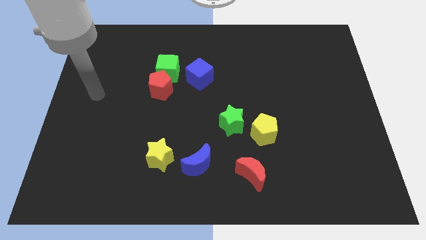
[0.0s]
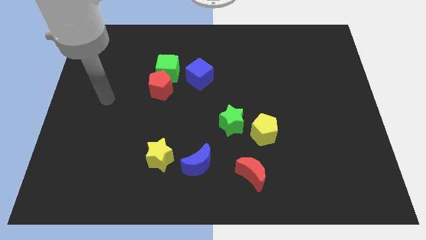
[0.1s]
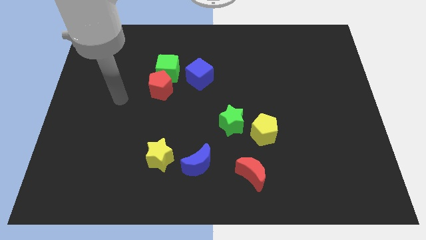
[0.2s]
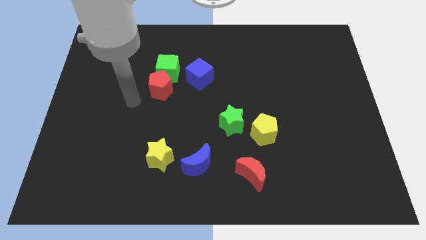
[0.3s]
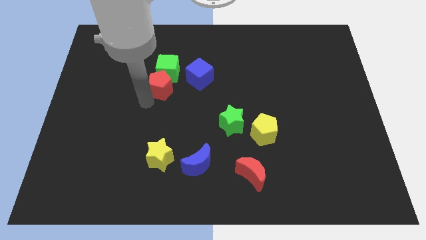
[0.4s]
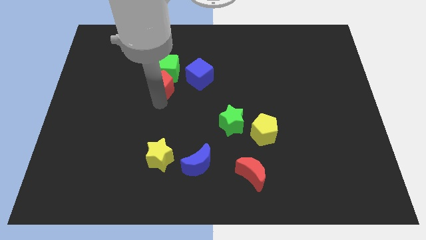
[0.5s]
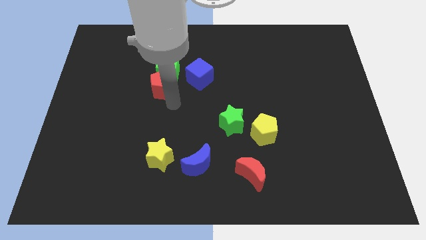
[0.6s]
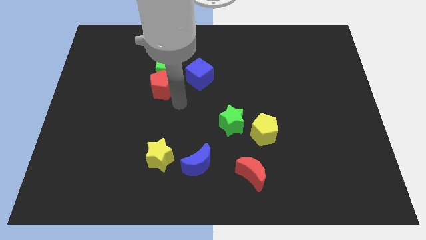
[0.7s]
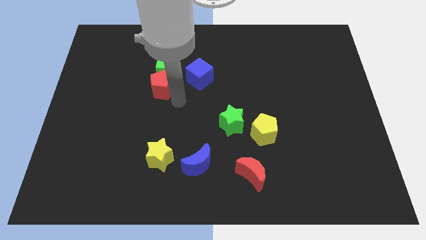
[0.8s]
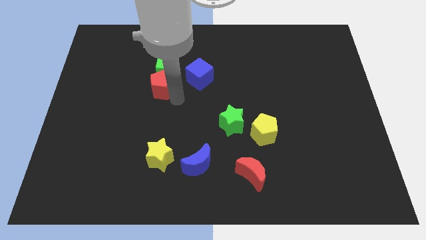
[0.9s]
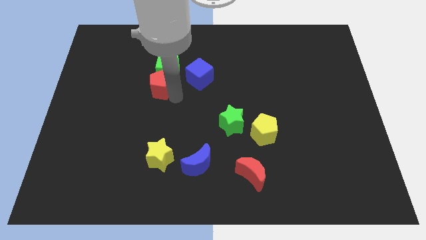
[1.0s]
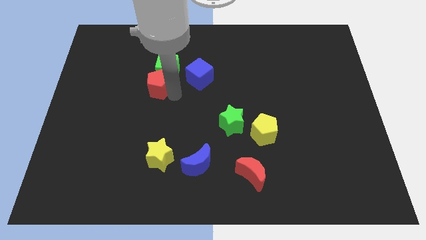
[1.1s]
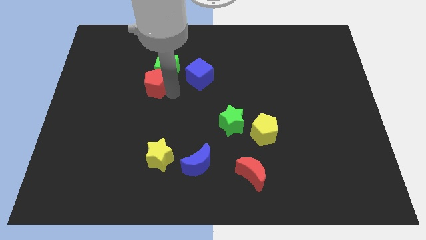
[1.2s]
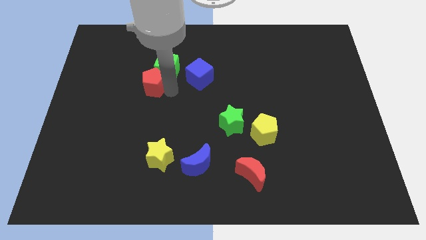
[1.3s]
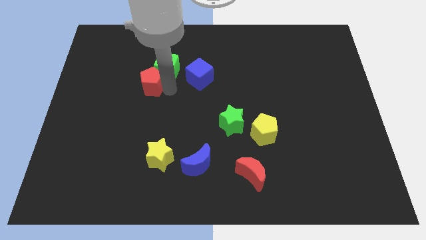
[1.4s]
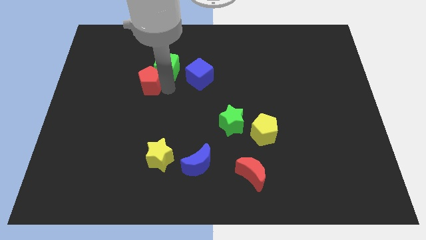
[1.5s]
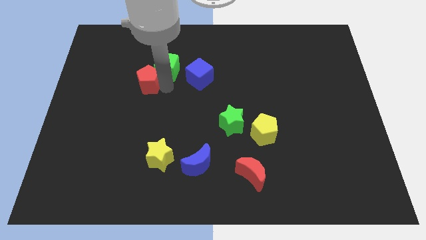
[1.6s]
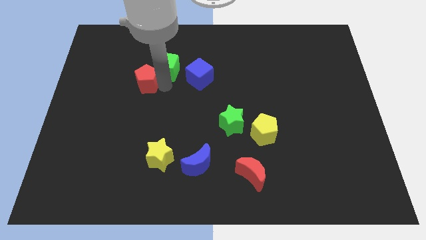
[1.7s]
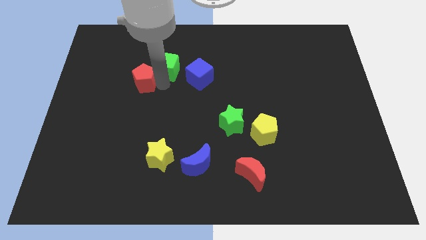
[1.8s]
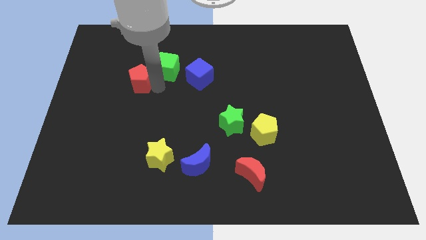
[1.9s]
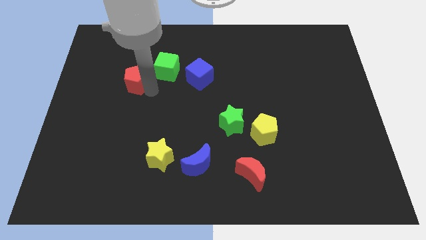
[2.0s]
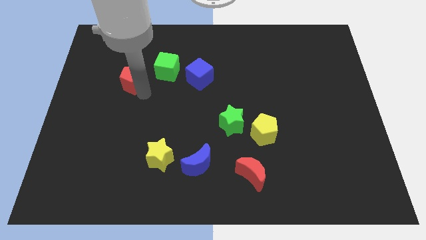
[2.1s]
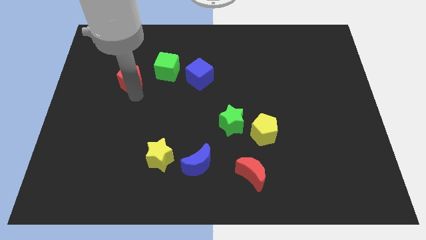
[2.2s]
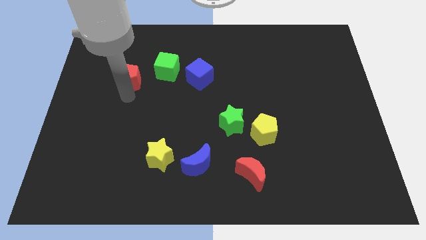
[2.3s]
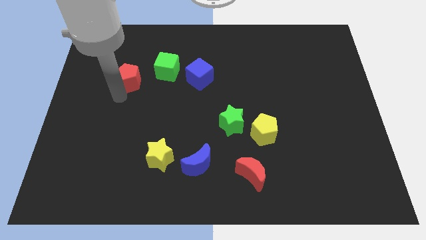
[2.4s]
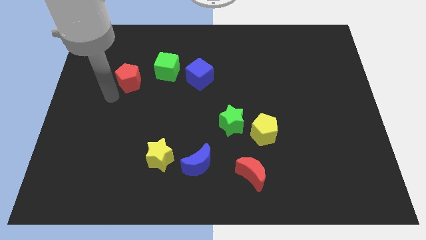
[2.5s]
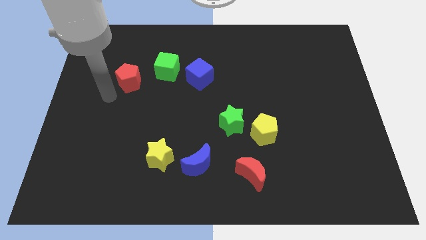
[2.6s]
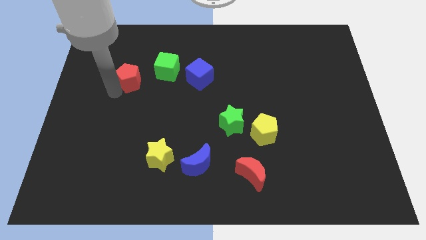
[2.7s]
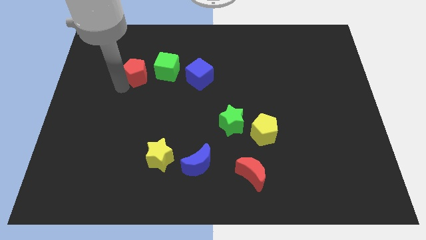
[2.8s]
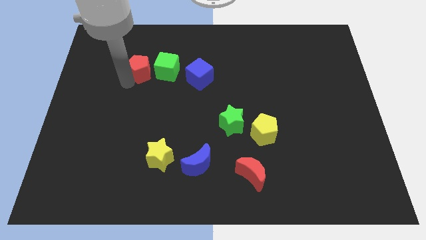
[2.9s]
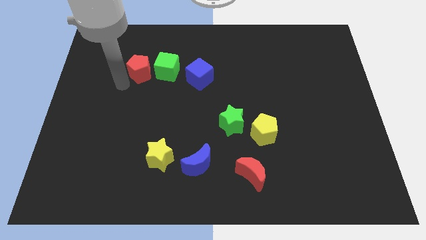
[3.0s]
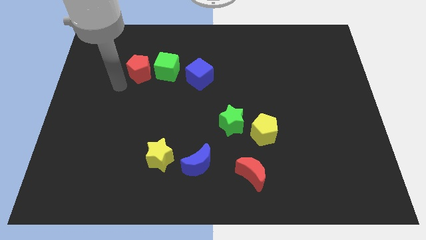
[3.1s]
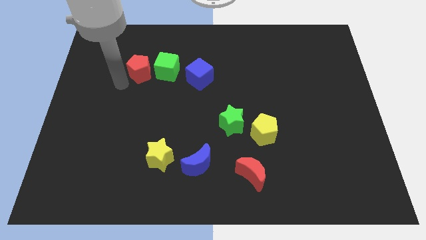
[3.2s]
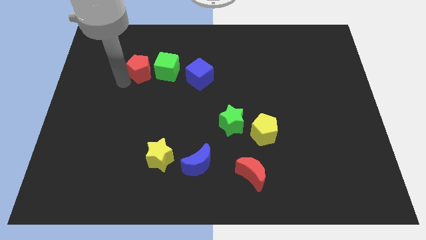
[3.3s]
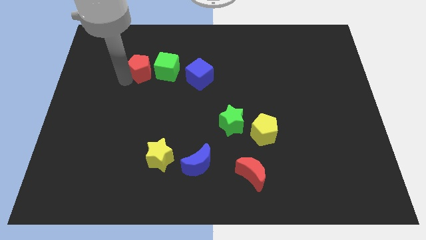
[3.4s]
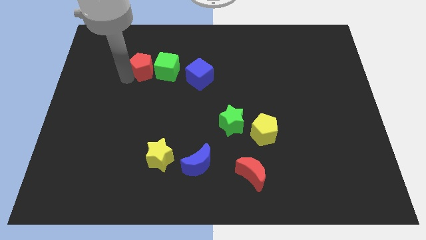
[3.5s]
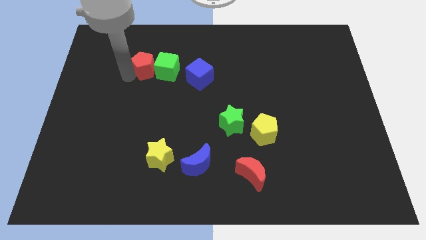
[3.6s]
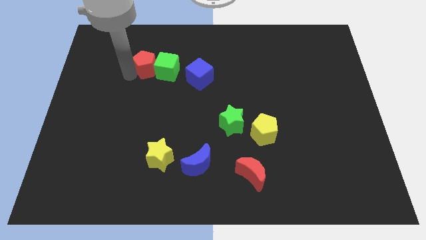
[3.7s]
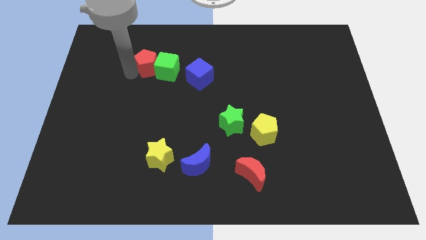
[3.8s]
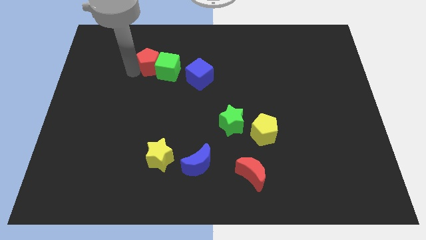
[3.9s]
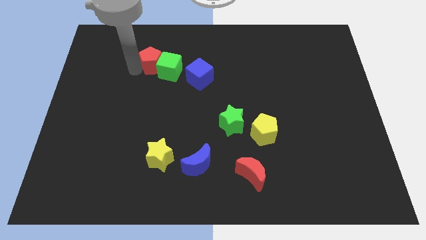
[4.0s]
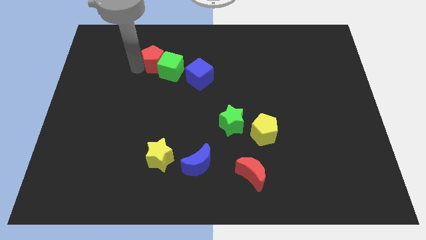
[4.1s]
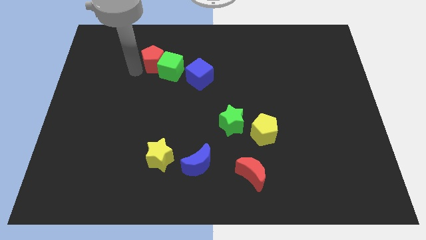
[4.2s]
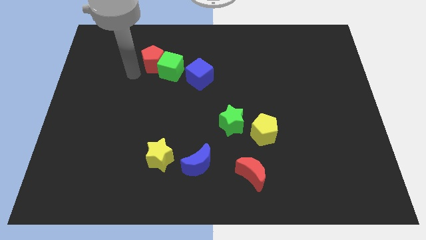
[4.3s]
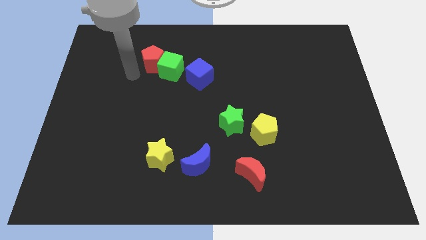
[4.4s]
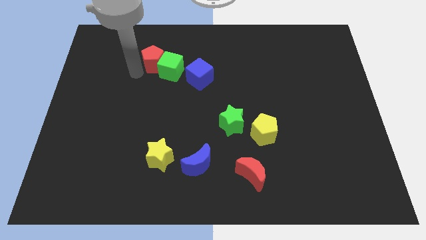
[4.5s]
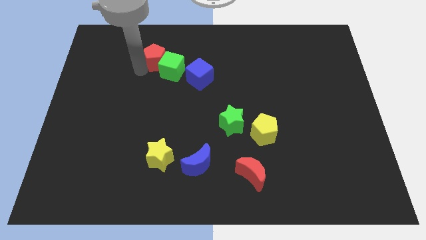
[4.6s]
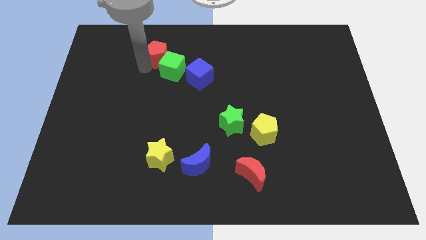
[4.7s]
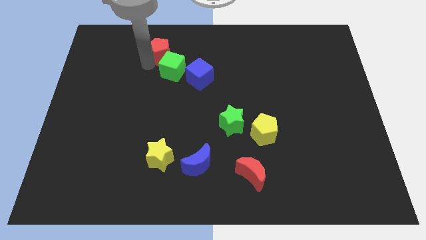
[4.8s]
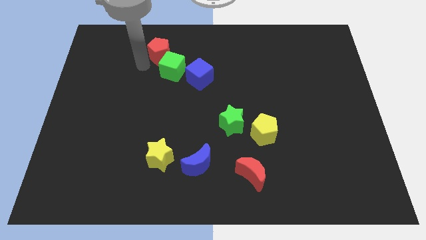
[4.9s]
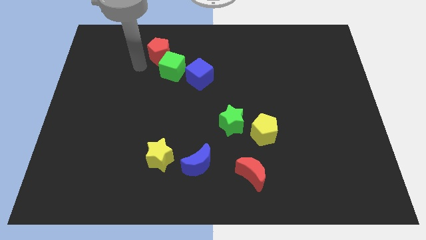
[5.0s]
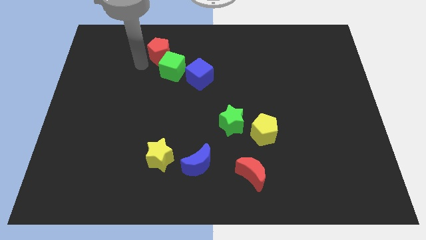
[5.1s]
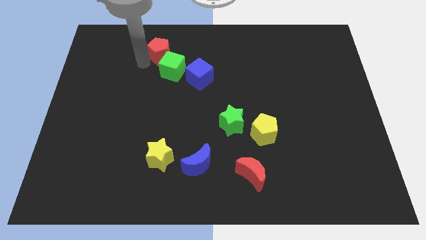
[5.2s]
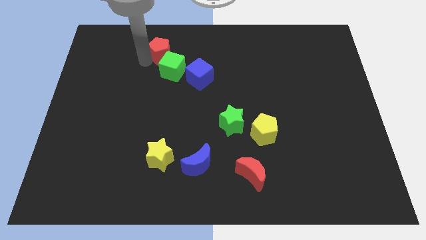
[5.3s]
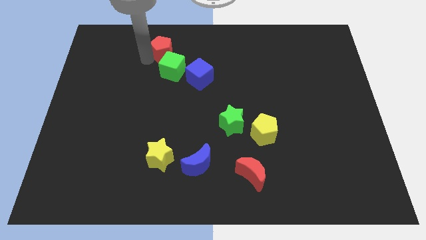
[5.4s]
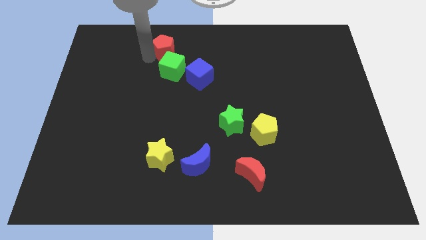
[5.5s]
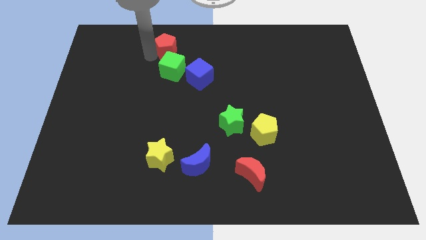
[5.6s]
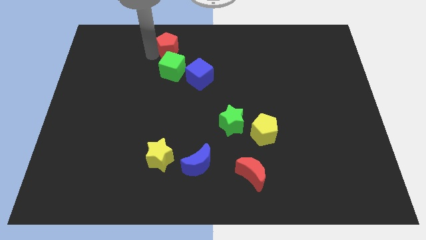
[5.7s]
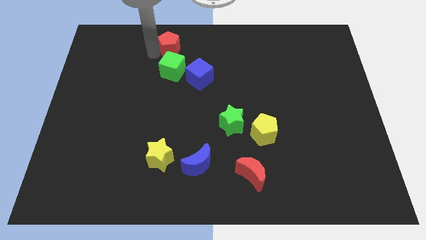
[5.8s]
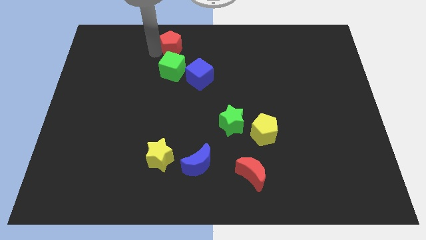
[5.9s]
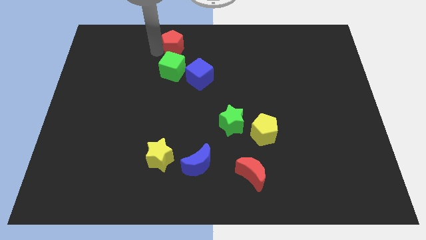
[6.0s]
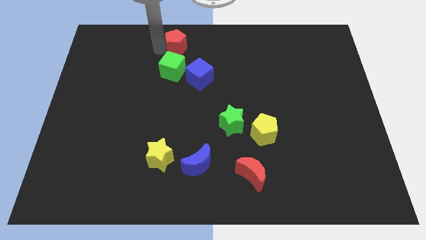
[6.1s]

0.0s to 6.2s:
slide the red pentagon to the top
